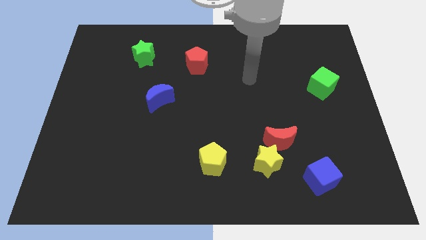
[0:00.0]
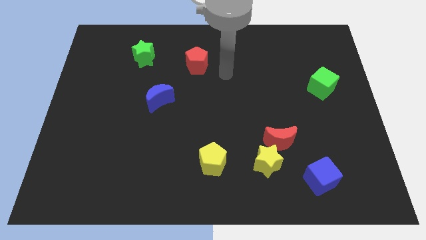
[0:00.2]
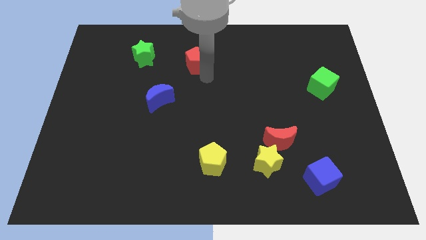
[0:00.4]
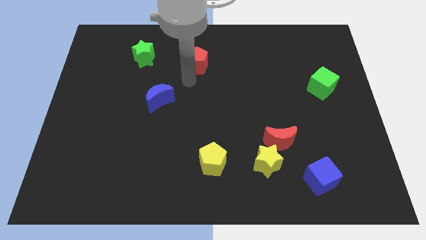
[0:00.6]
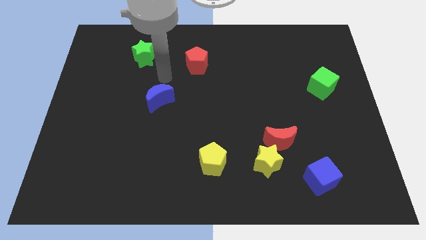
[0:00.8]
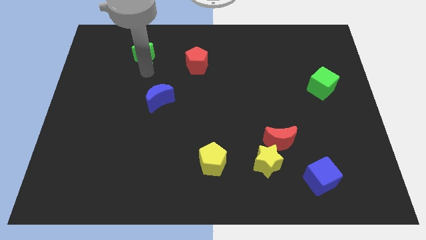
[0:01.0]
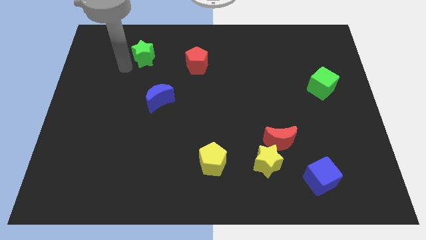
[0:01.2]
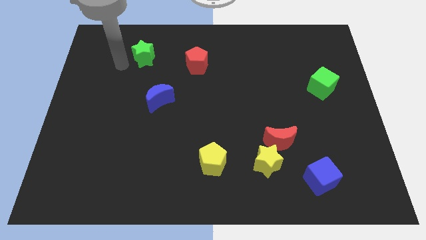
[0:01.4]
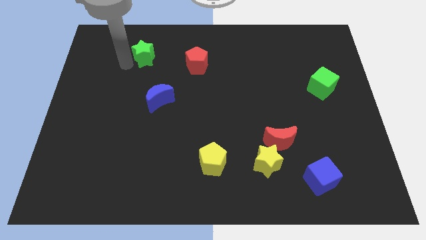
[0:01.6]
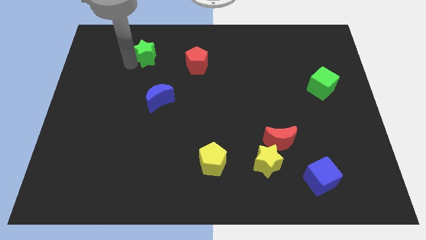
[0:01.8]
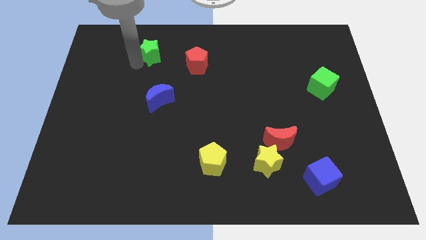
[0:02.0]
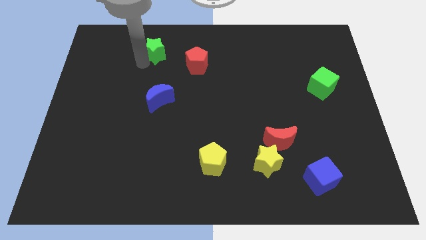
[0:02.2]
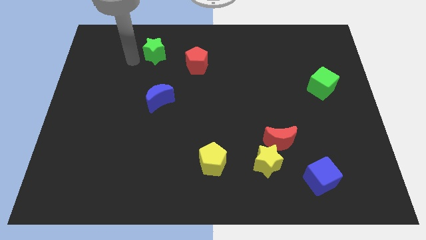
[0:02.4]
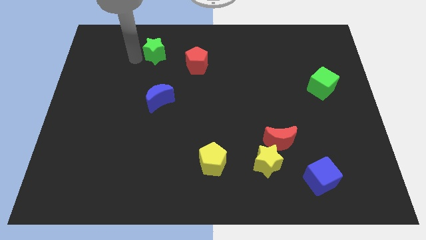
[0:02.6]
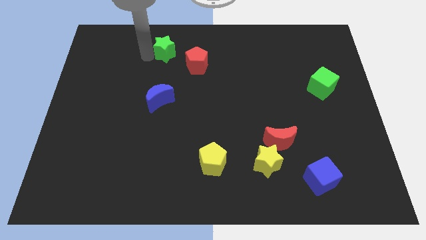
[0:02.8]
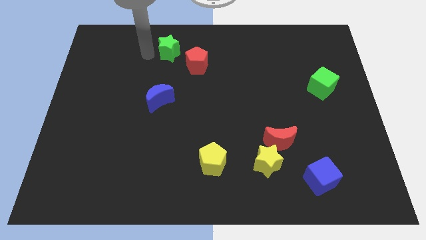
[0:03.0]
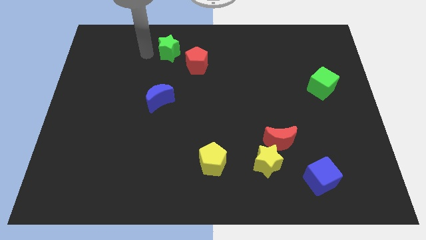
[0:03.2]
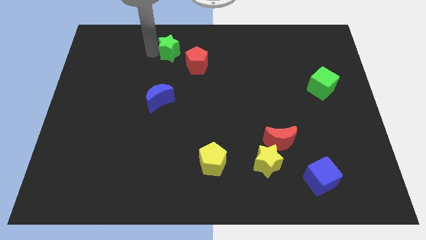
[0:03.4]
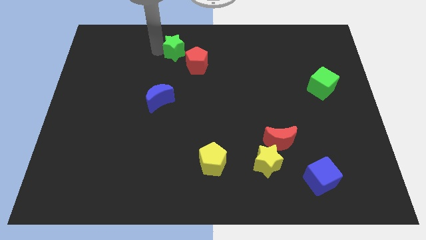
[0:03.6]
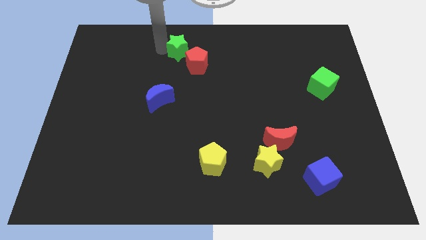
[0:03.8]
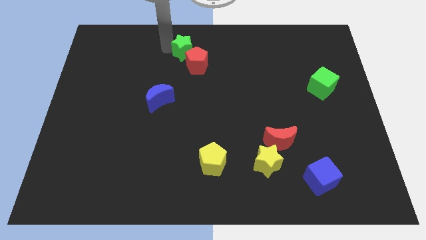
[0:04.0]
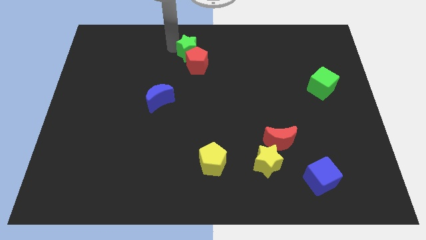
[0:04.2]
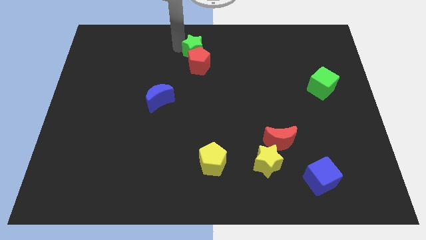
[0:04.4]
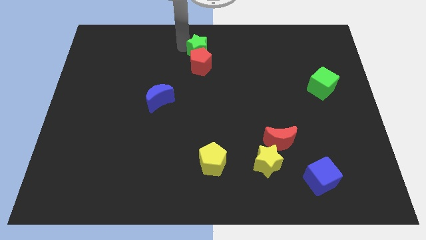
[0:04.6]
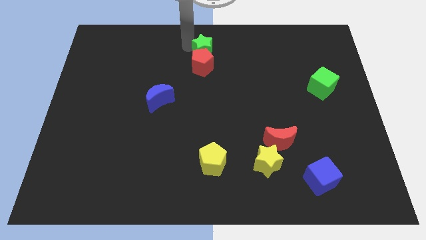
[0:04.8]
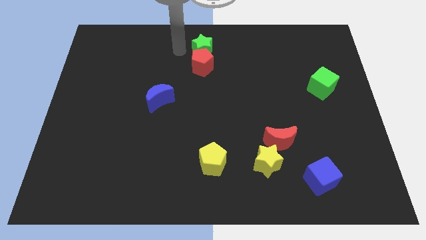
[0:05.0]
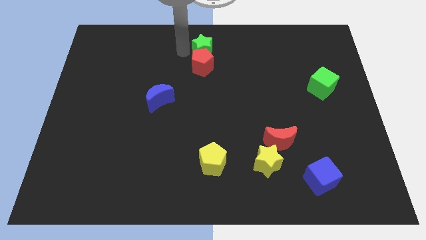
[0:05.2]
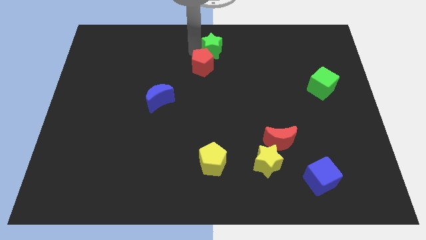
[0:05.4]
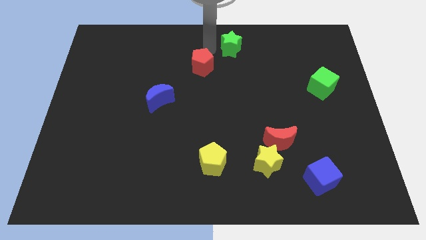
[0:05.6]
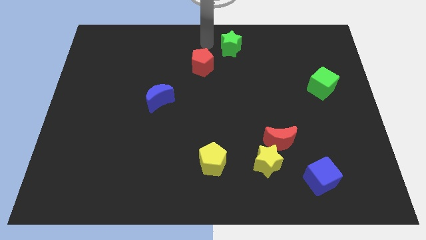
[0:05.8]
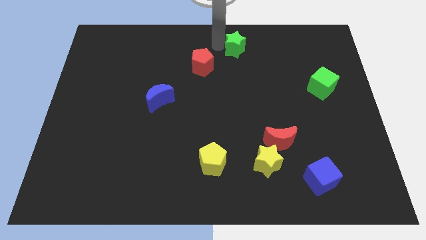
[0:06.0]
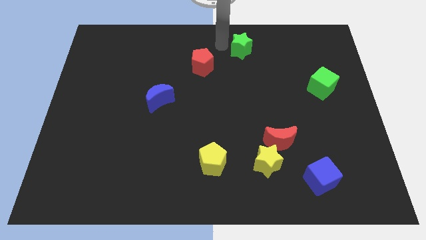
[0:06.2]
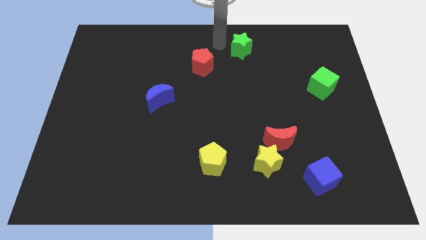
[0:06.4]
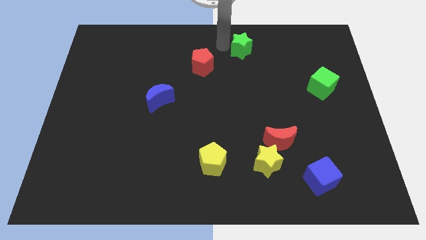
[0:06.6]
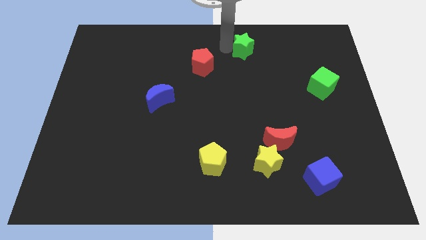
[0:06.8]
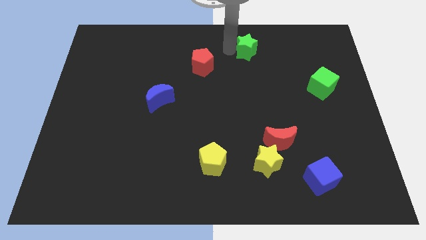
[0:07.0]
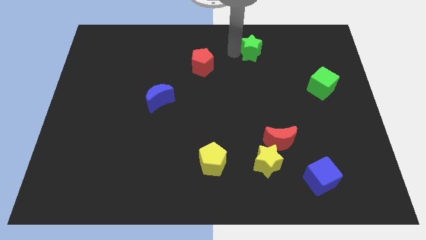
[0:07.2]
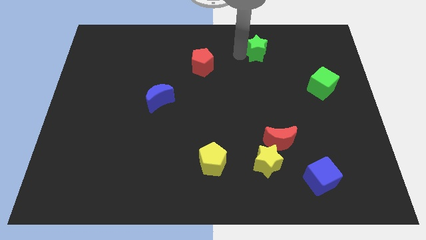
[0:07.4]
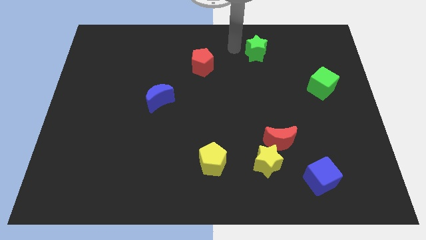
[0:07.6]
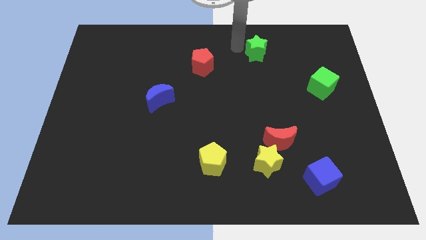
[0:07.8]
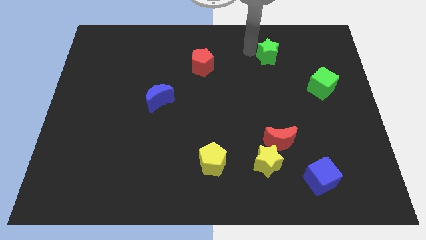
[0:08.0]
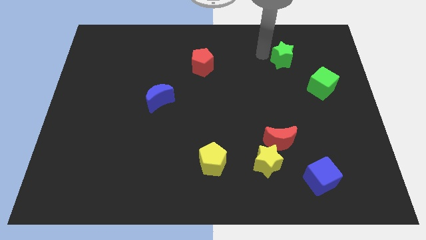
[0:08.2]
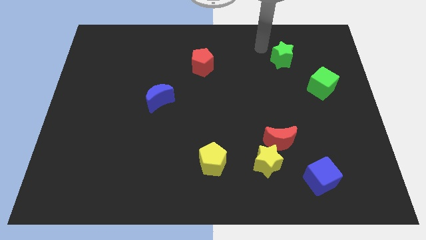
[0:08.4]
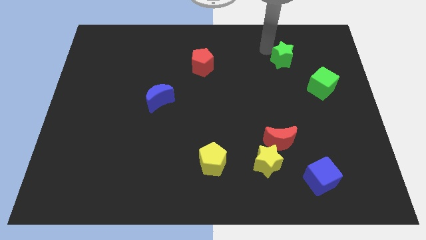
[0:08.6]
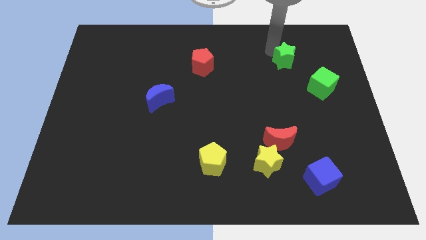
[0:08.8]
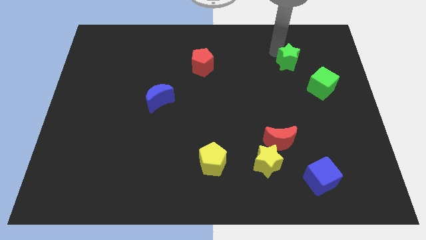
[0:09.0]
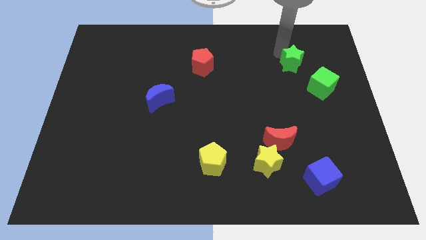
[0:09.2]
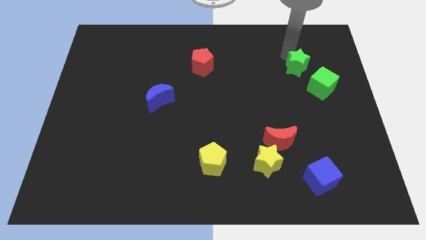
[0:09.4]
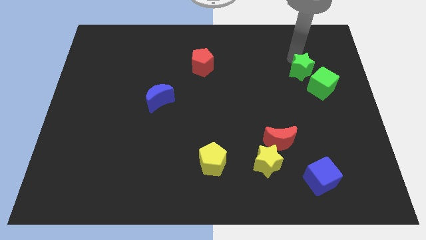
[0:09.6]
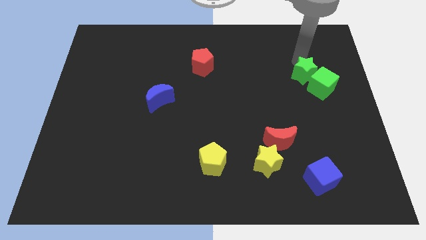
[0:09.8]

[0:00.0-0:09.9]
push the green star next to the green cube

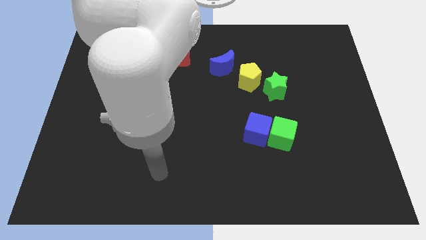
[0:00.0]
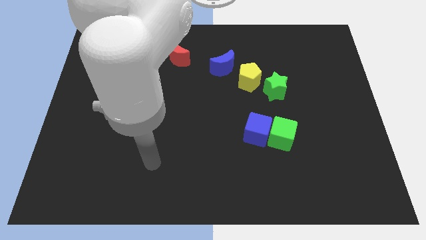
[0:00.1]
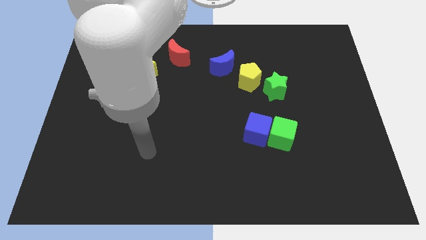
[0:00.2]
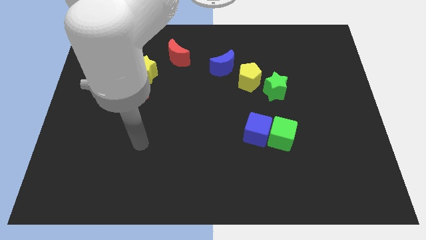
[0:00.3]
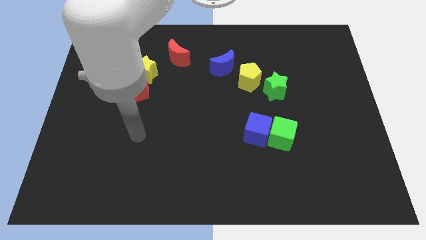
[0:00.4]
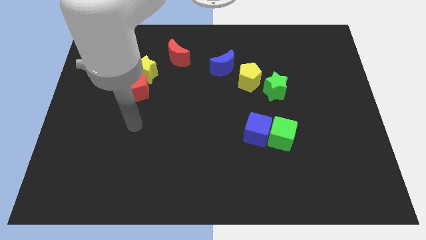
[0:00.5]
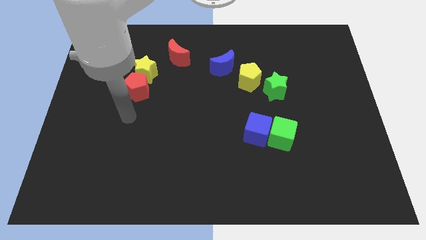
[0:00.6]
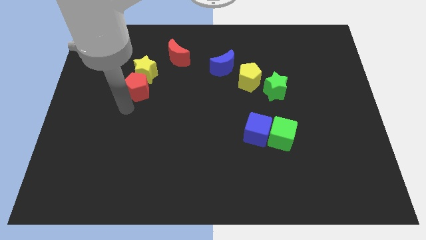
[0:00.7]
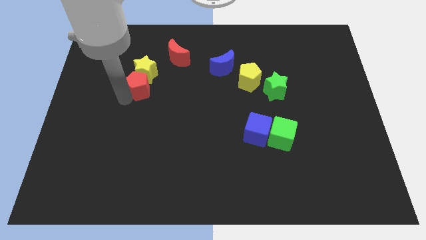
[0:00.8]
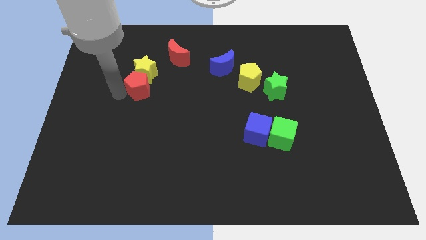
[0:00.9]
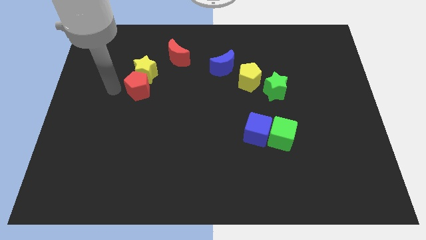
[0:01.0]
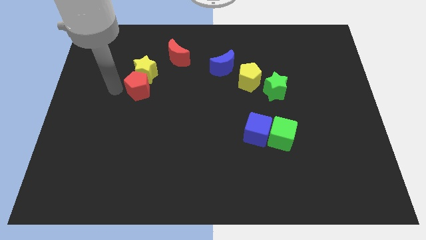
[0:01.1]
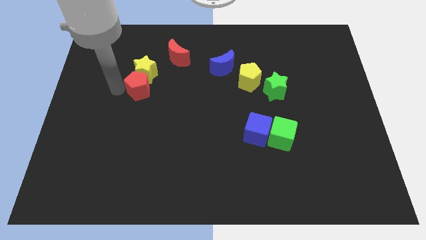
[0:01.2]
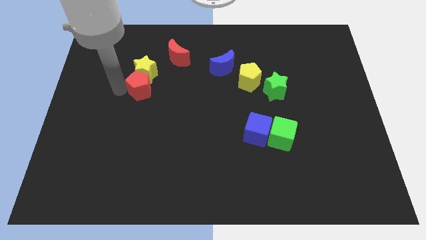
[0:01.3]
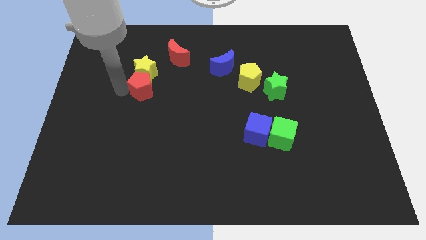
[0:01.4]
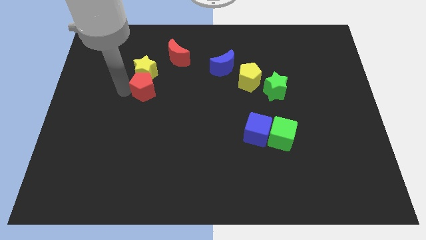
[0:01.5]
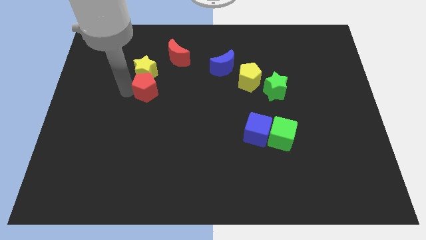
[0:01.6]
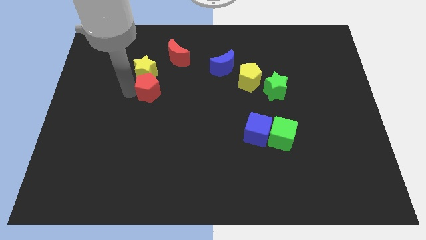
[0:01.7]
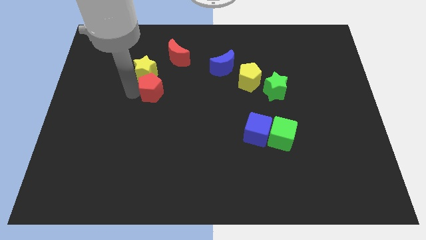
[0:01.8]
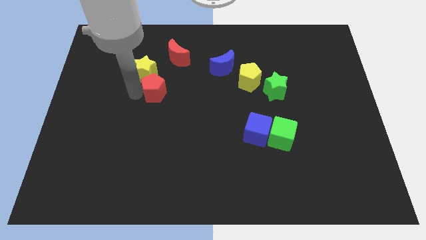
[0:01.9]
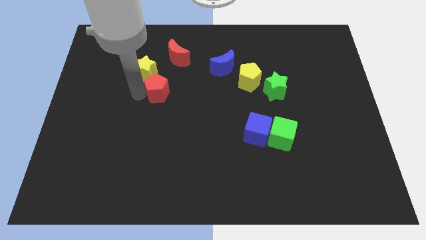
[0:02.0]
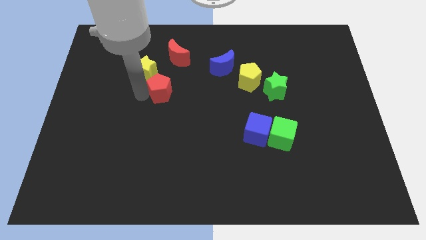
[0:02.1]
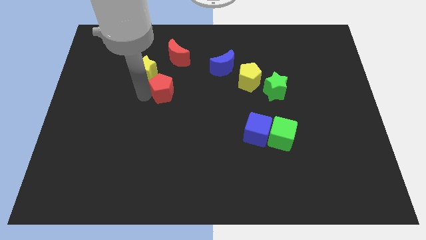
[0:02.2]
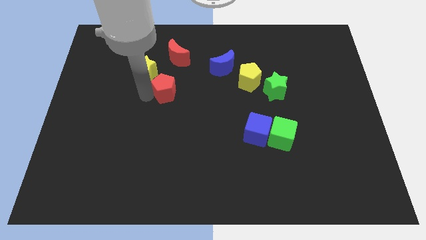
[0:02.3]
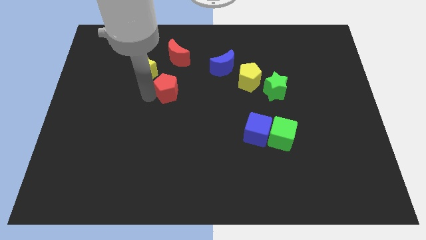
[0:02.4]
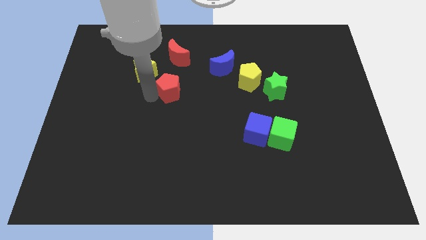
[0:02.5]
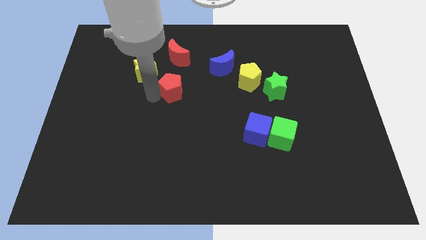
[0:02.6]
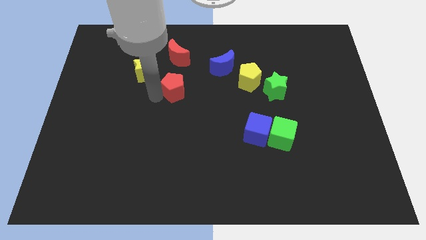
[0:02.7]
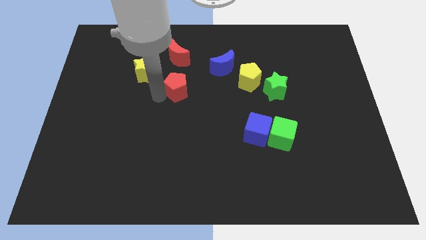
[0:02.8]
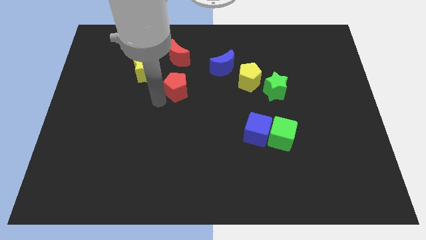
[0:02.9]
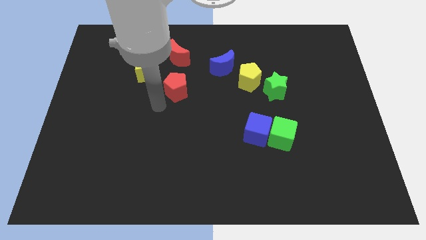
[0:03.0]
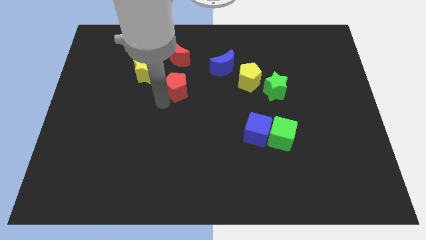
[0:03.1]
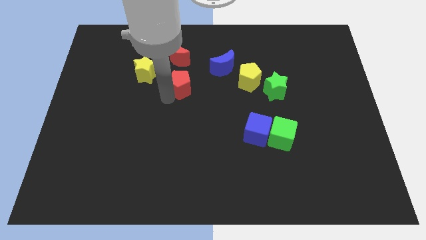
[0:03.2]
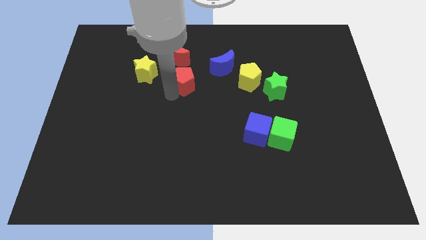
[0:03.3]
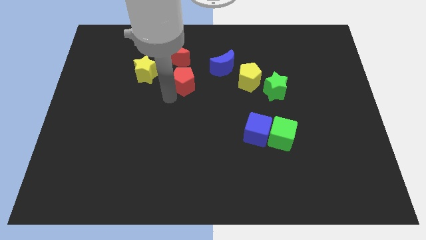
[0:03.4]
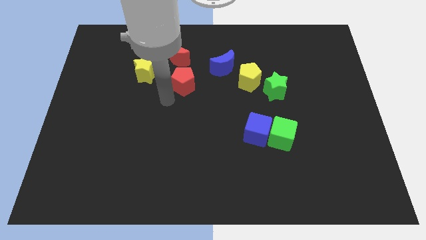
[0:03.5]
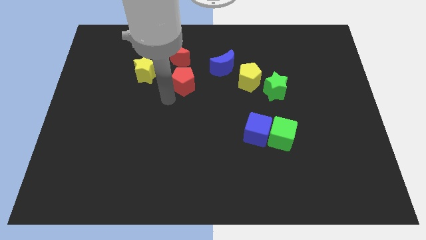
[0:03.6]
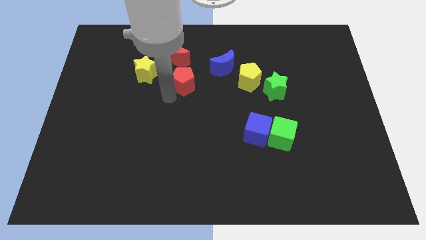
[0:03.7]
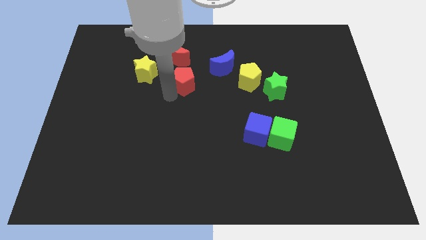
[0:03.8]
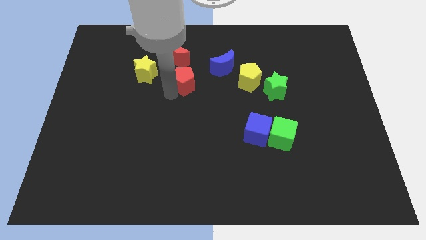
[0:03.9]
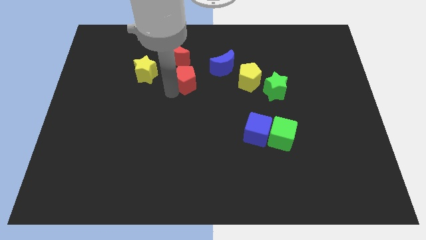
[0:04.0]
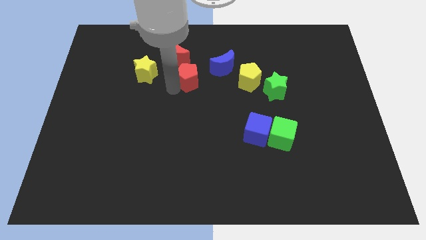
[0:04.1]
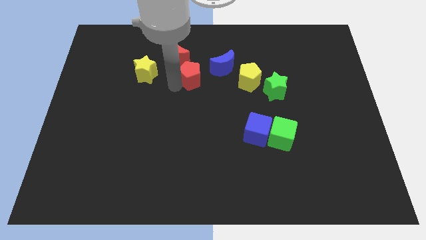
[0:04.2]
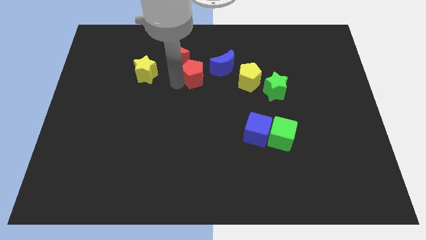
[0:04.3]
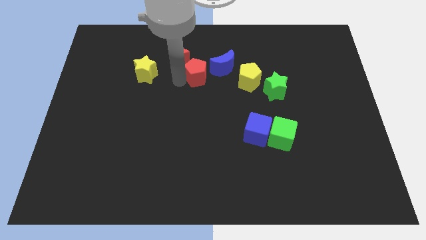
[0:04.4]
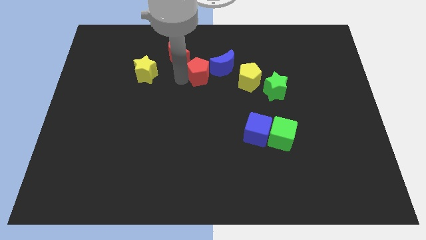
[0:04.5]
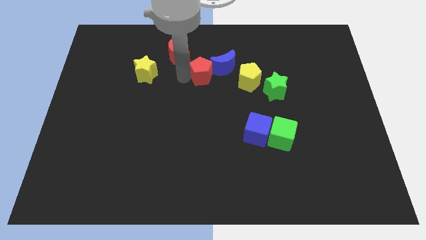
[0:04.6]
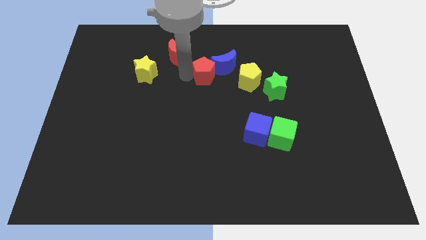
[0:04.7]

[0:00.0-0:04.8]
move the red pentagon towards the blue moon
